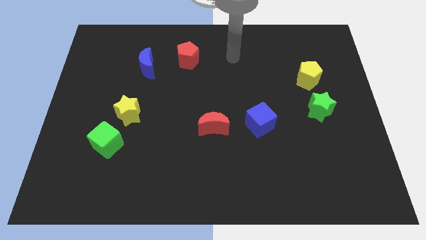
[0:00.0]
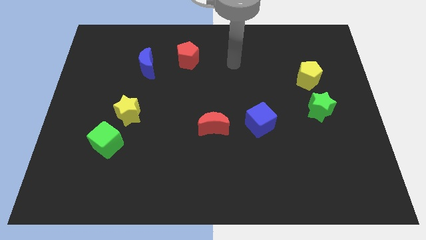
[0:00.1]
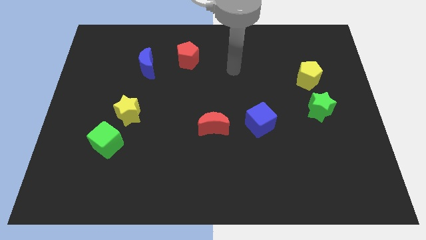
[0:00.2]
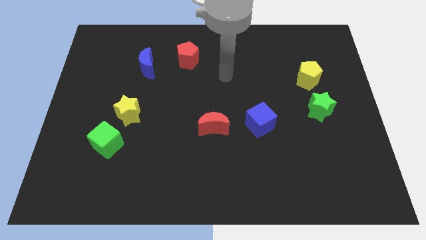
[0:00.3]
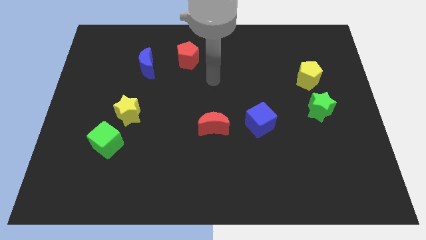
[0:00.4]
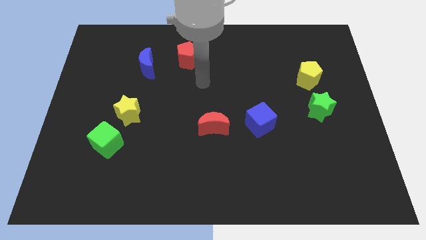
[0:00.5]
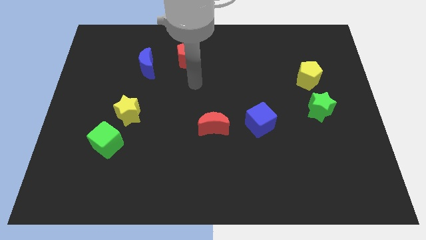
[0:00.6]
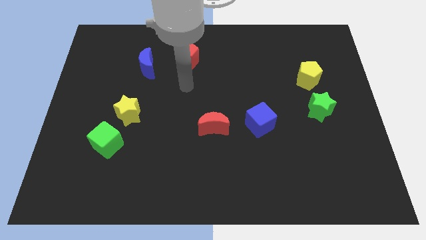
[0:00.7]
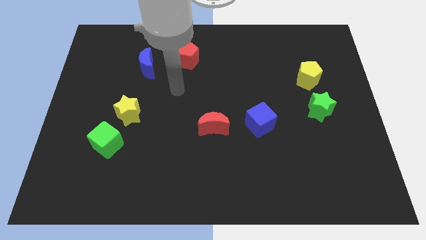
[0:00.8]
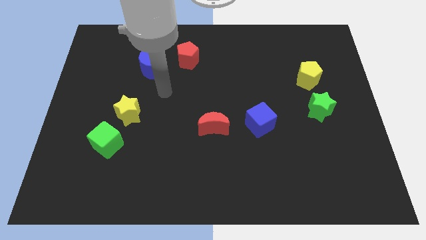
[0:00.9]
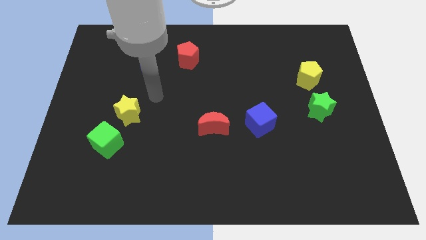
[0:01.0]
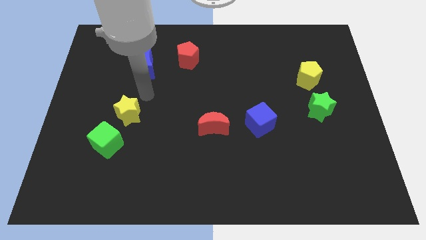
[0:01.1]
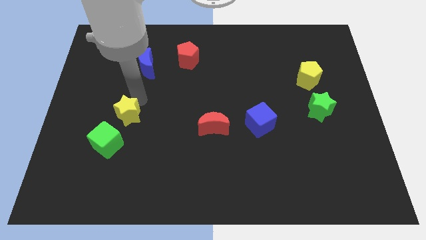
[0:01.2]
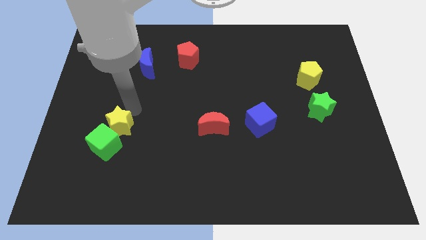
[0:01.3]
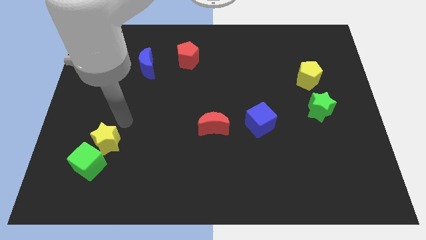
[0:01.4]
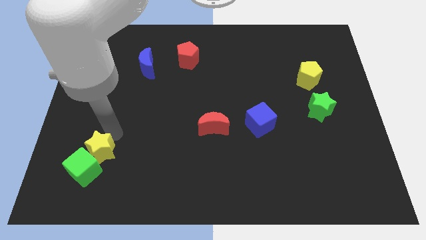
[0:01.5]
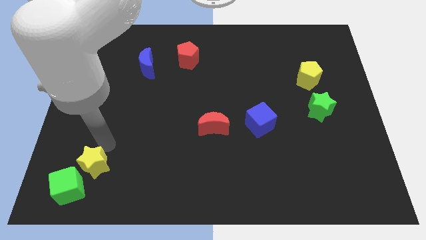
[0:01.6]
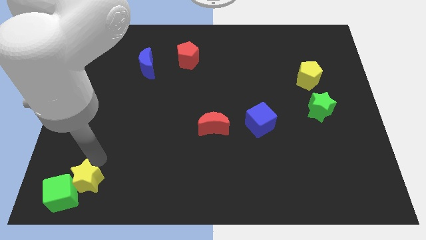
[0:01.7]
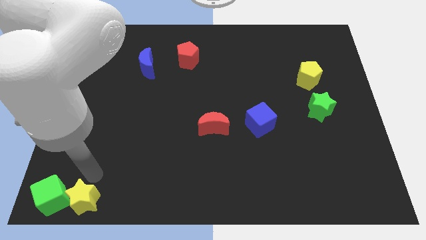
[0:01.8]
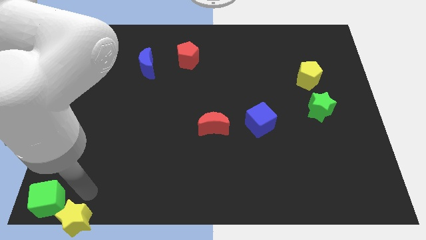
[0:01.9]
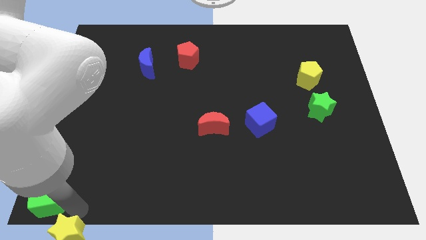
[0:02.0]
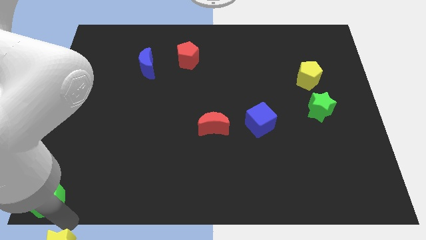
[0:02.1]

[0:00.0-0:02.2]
separate the green cube from the yellow star

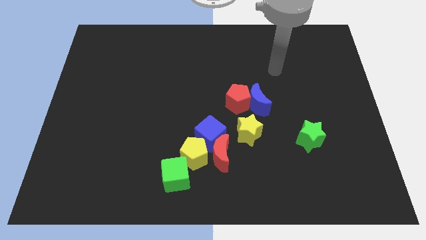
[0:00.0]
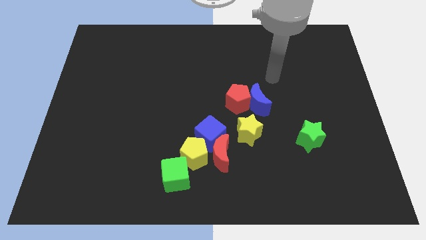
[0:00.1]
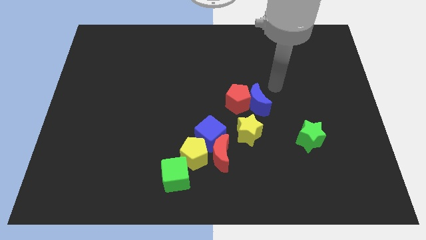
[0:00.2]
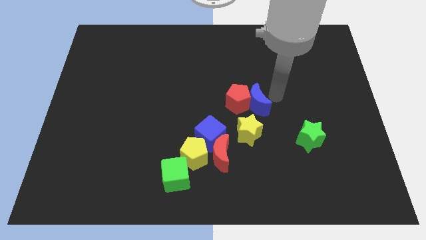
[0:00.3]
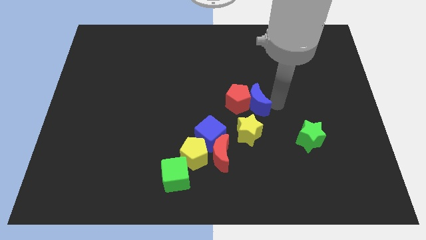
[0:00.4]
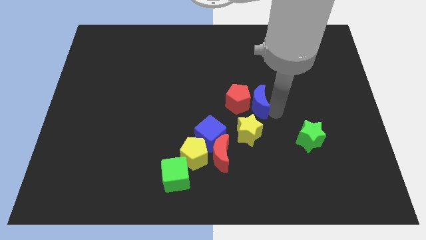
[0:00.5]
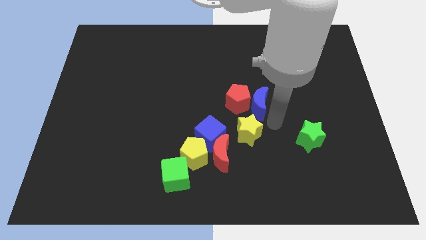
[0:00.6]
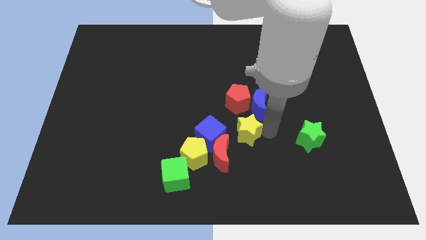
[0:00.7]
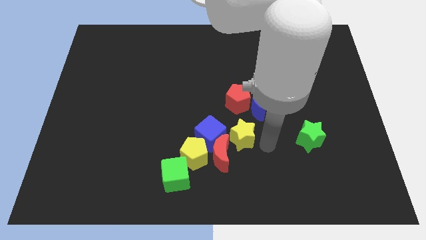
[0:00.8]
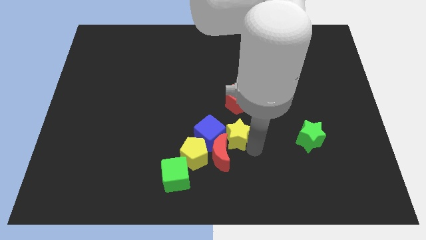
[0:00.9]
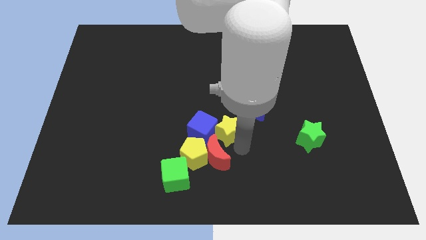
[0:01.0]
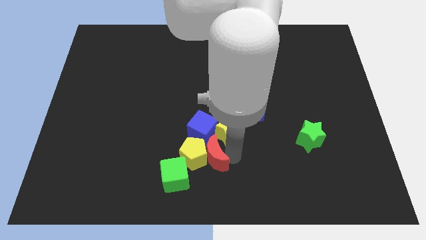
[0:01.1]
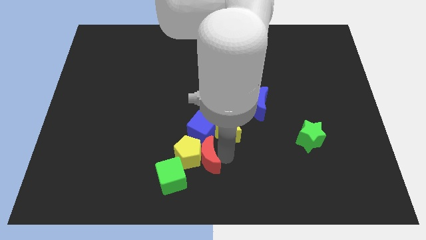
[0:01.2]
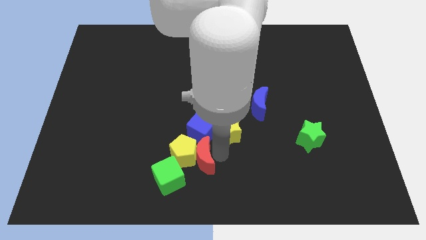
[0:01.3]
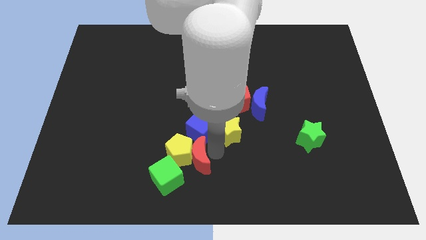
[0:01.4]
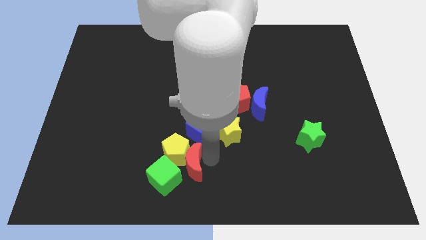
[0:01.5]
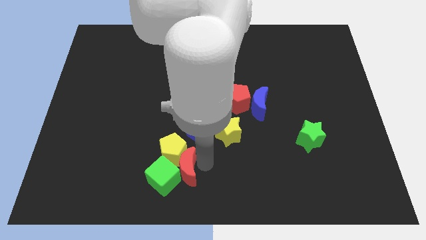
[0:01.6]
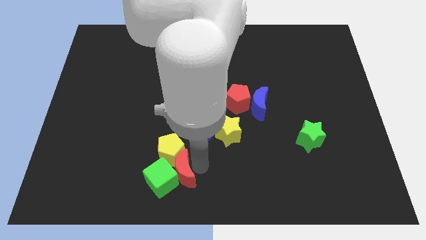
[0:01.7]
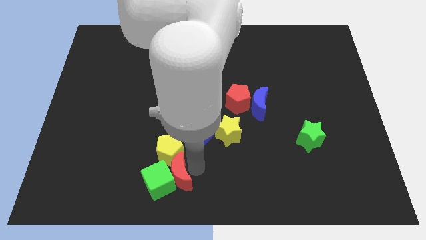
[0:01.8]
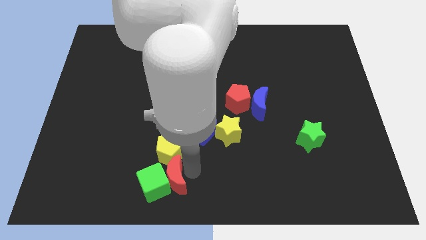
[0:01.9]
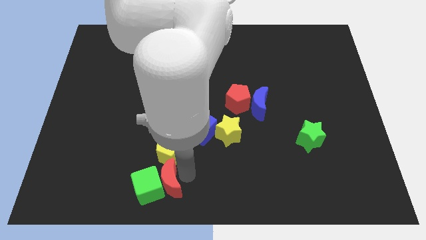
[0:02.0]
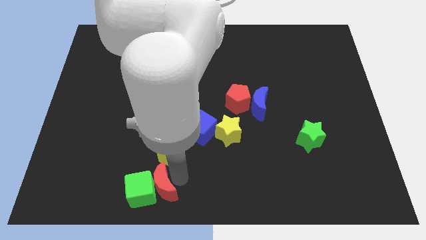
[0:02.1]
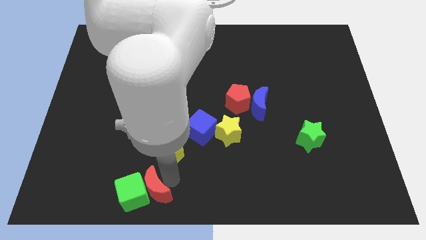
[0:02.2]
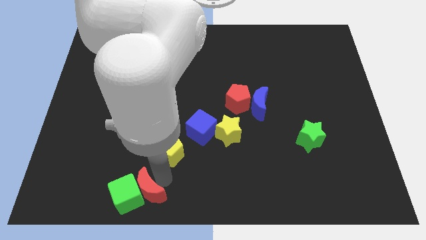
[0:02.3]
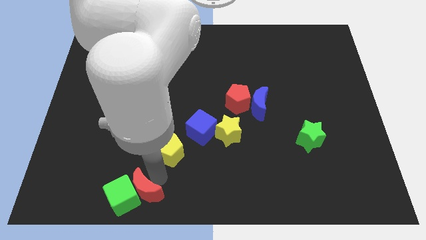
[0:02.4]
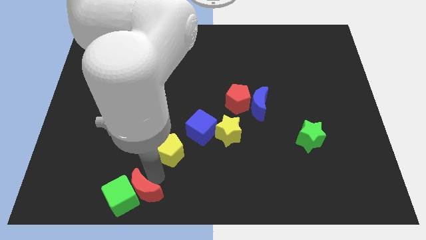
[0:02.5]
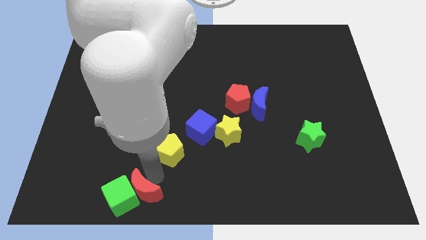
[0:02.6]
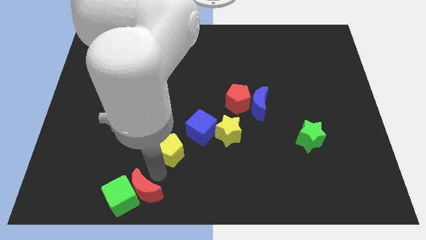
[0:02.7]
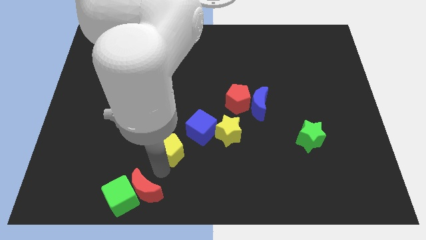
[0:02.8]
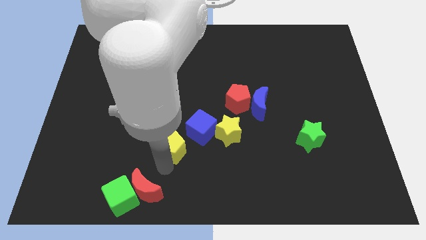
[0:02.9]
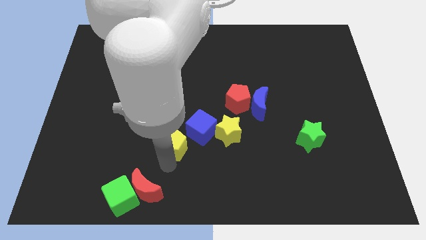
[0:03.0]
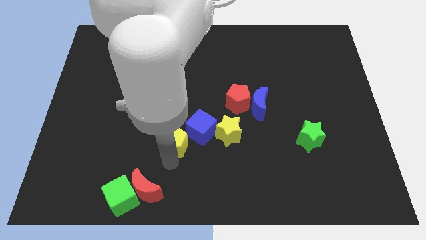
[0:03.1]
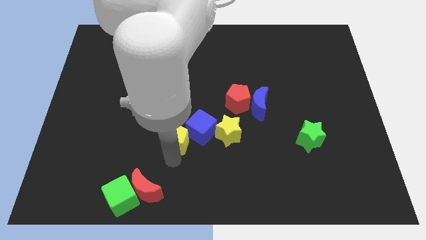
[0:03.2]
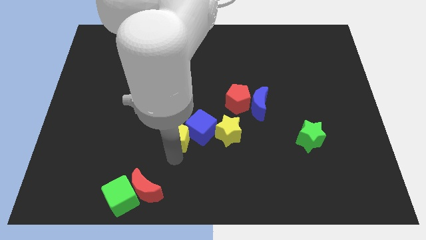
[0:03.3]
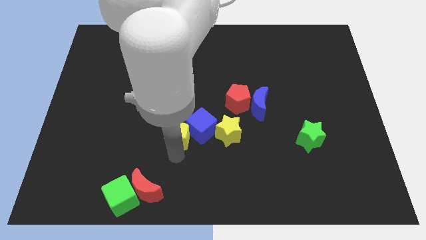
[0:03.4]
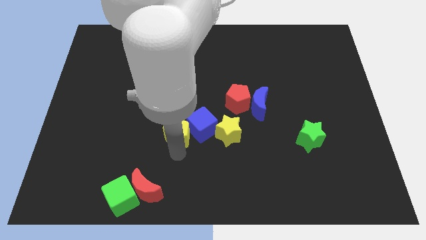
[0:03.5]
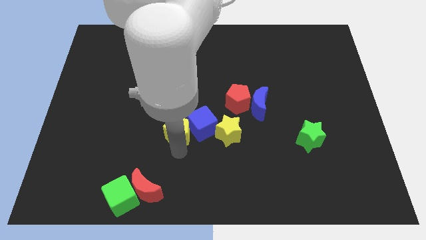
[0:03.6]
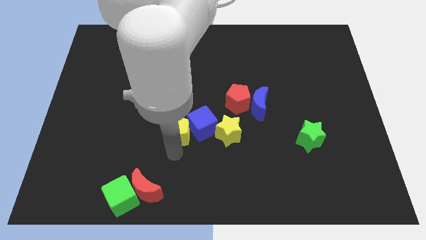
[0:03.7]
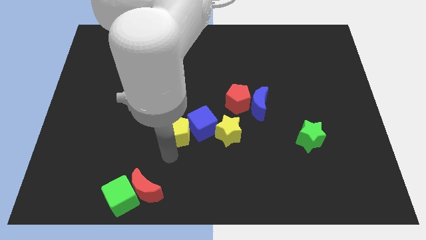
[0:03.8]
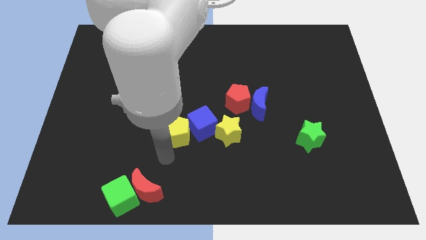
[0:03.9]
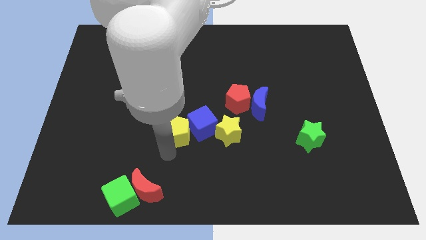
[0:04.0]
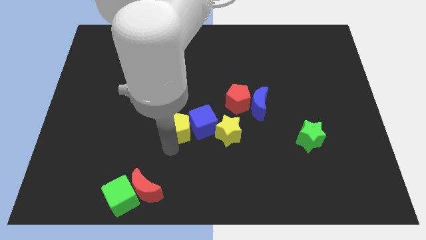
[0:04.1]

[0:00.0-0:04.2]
move the yellow pentagon away from the group of blocks

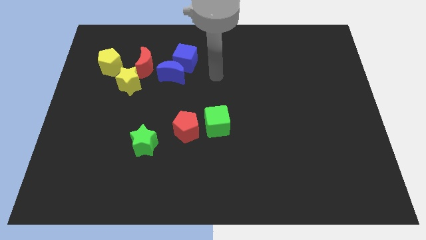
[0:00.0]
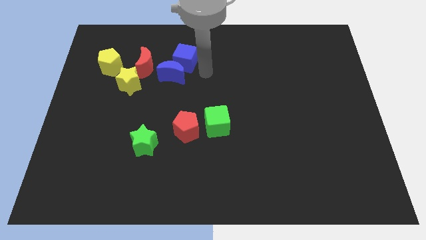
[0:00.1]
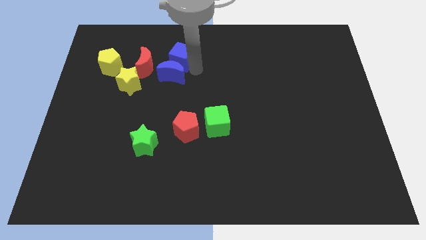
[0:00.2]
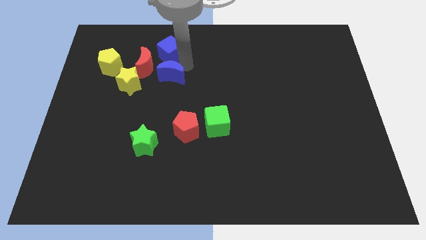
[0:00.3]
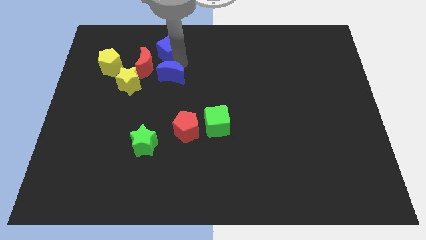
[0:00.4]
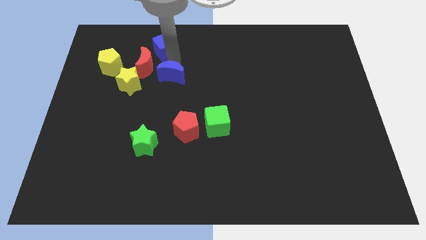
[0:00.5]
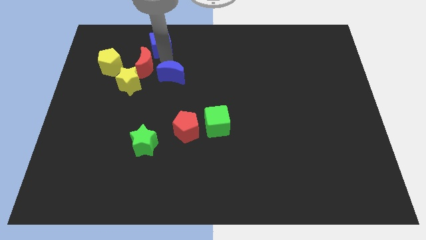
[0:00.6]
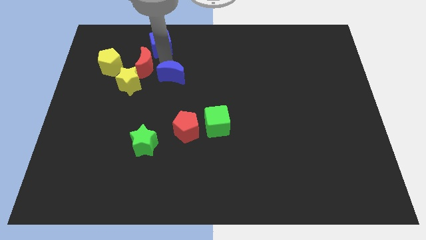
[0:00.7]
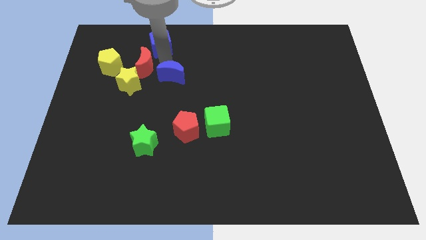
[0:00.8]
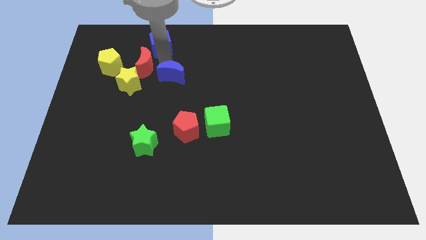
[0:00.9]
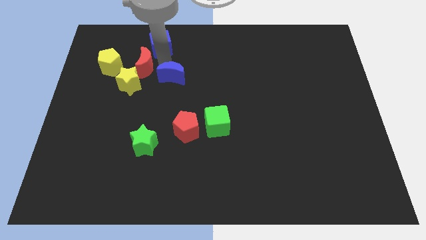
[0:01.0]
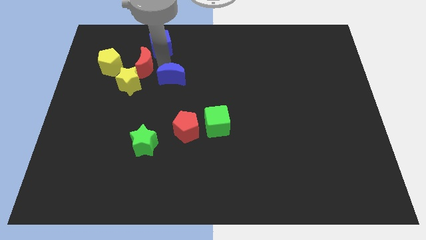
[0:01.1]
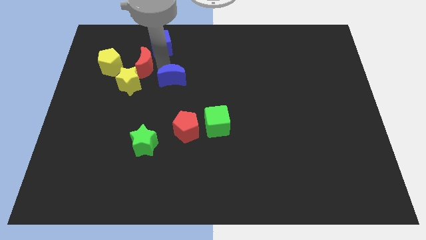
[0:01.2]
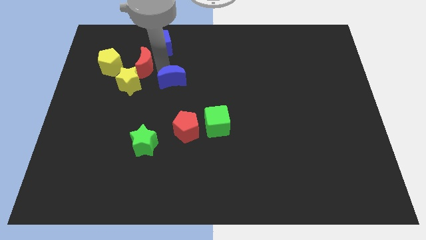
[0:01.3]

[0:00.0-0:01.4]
separate the blue moon from the blue cube and red moon

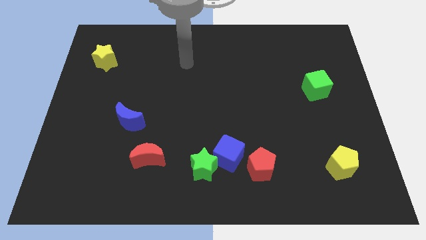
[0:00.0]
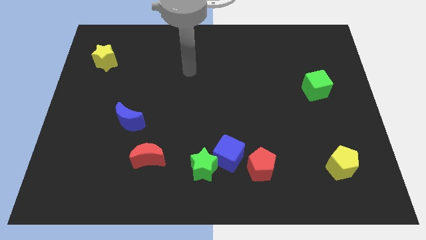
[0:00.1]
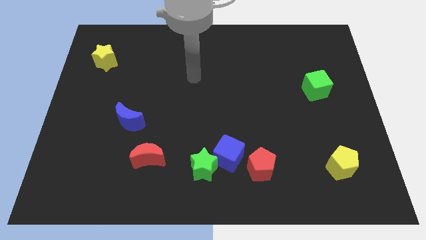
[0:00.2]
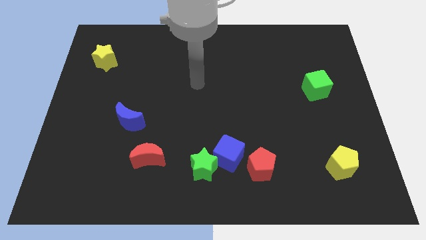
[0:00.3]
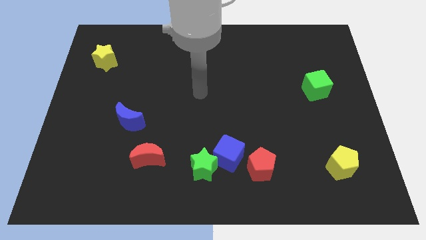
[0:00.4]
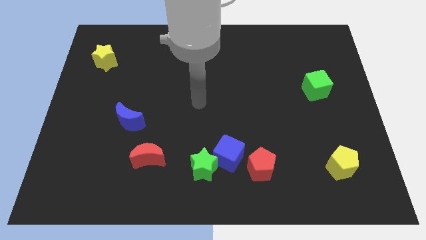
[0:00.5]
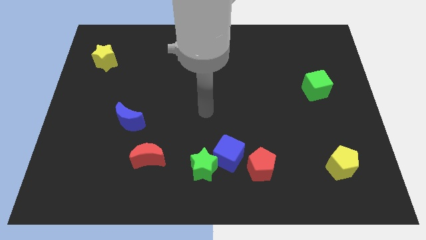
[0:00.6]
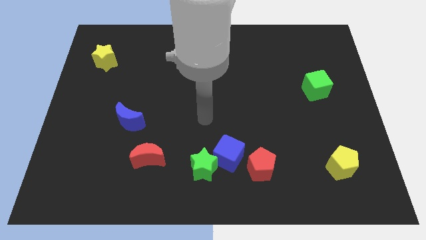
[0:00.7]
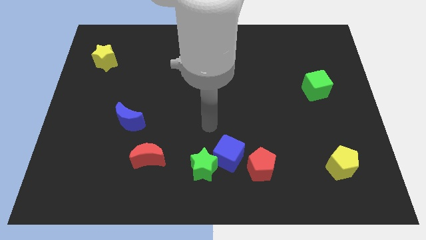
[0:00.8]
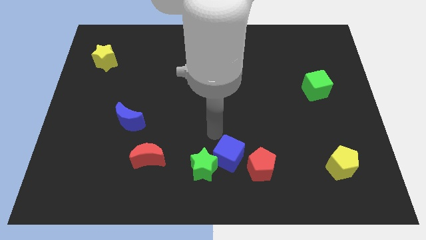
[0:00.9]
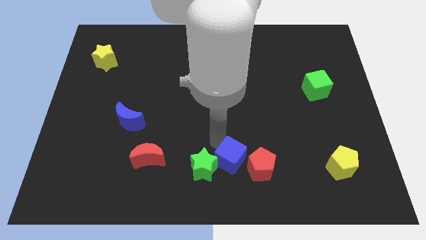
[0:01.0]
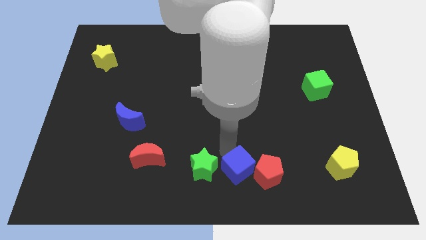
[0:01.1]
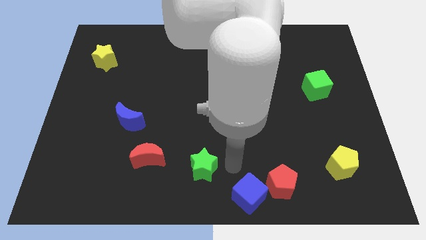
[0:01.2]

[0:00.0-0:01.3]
move the green star away from the blue cube

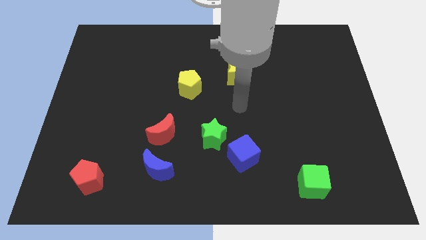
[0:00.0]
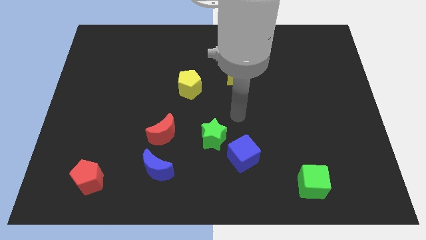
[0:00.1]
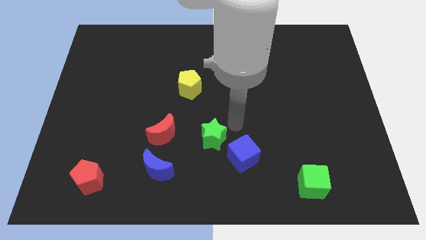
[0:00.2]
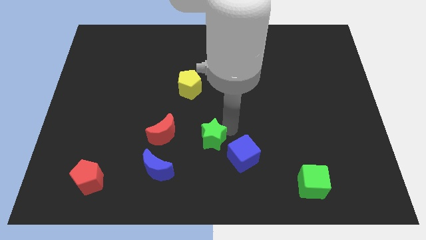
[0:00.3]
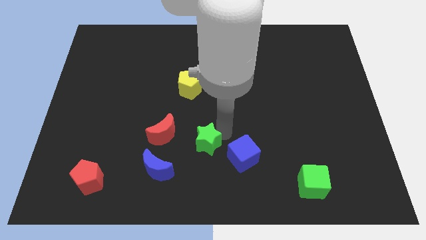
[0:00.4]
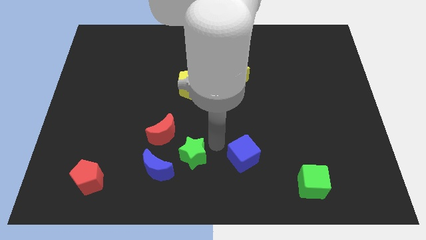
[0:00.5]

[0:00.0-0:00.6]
move the blue cube away from the green star
